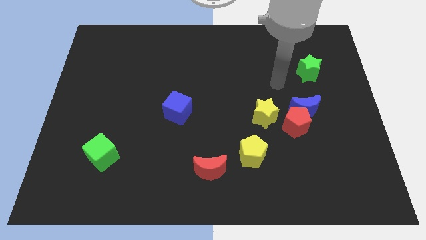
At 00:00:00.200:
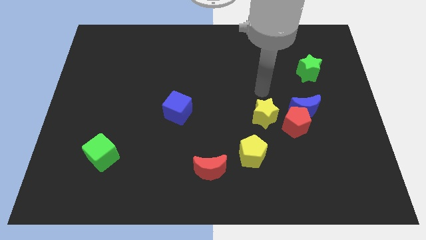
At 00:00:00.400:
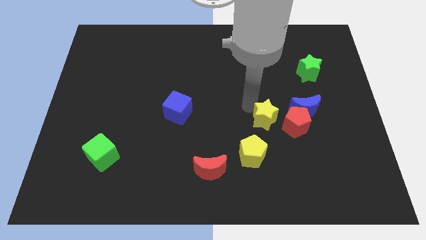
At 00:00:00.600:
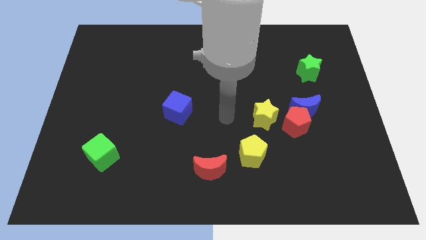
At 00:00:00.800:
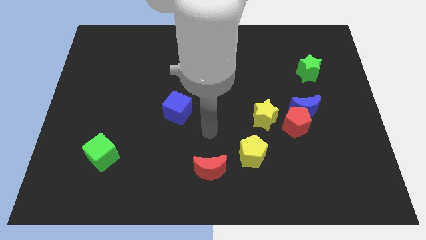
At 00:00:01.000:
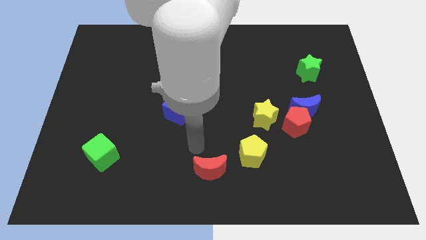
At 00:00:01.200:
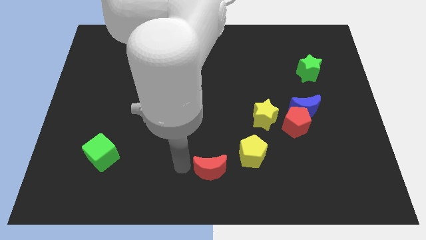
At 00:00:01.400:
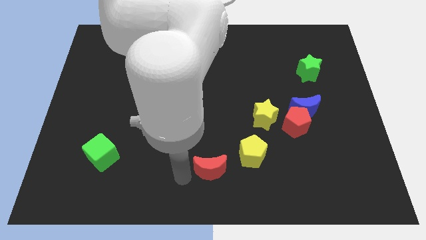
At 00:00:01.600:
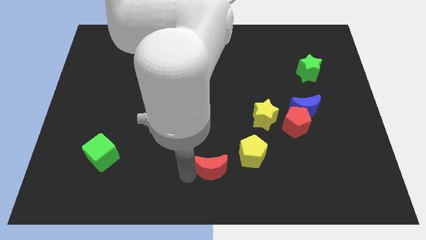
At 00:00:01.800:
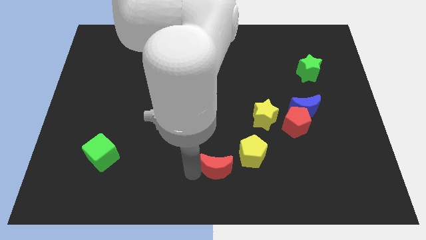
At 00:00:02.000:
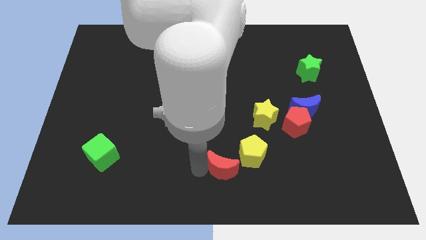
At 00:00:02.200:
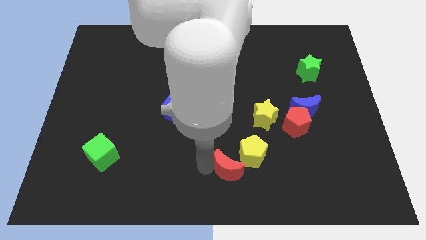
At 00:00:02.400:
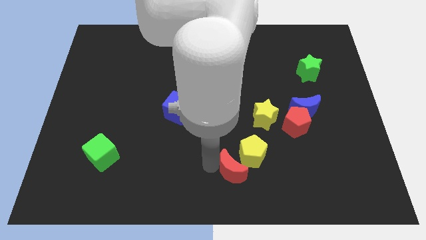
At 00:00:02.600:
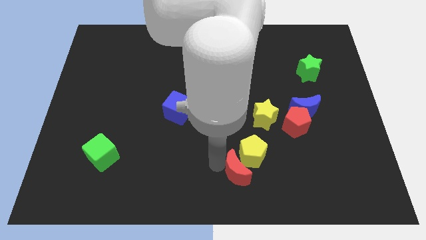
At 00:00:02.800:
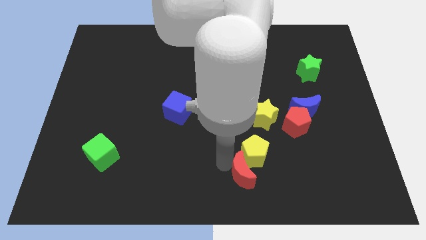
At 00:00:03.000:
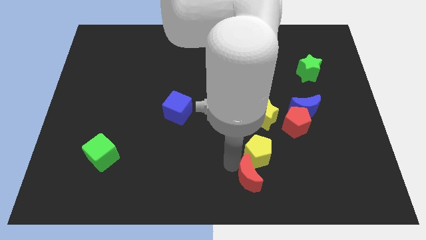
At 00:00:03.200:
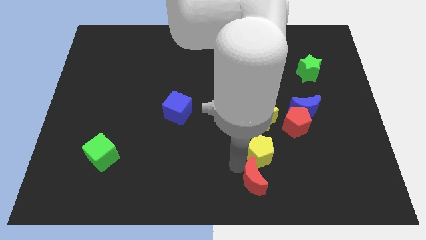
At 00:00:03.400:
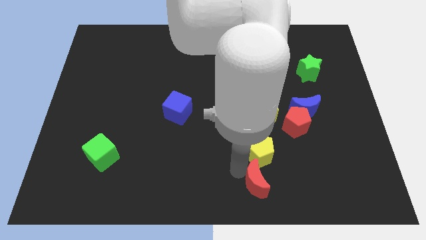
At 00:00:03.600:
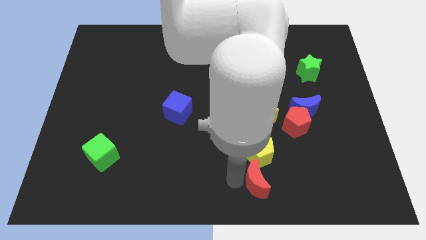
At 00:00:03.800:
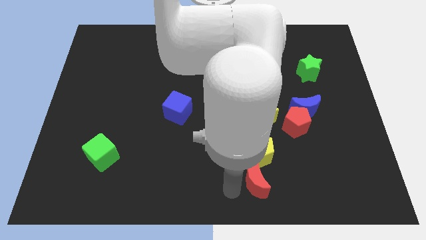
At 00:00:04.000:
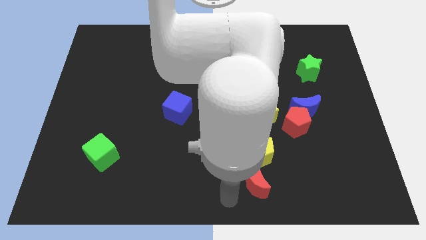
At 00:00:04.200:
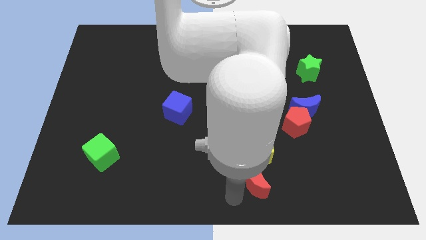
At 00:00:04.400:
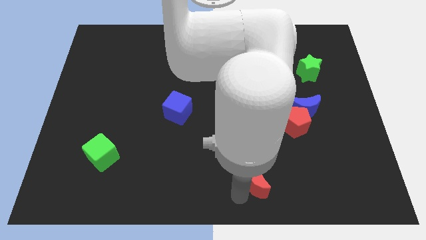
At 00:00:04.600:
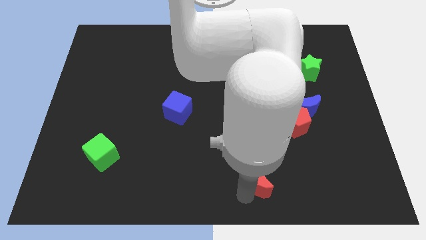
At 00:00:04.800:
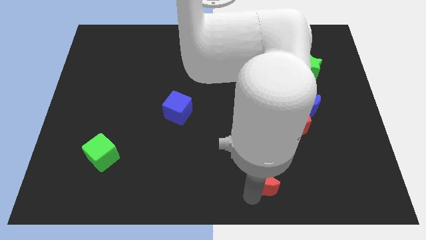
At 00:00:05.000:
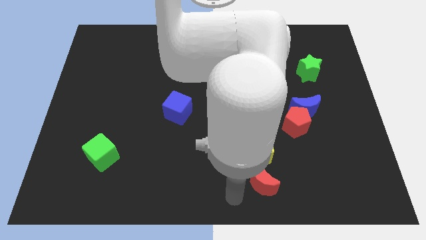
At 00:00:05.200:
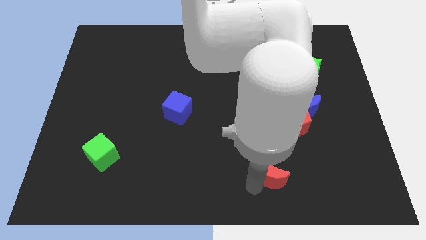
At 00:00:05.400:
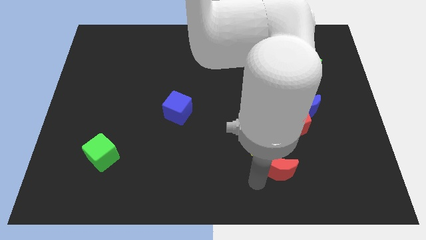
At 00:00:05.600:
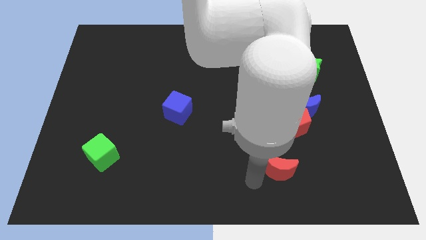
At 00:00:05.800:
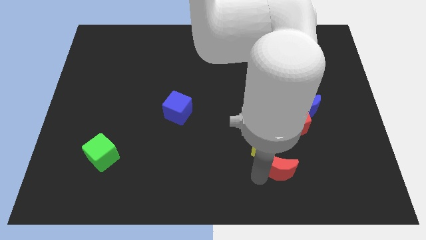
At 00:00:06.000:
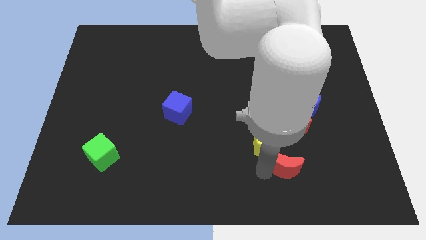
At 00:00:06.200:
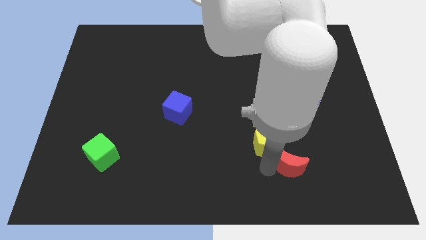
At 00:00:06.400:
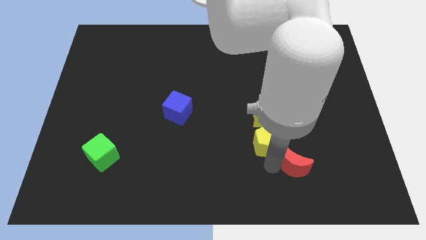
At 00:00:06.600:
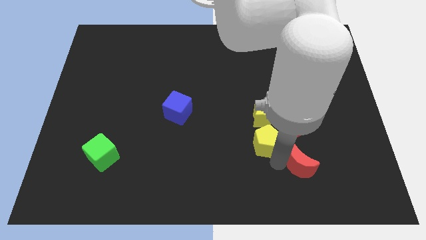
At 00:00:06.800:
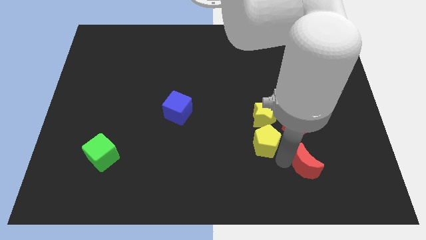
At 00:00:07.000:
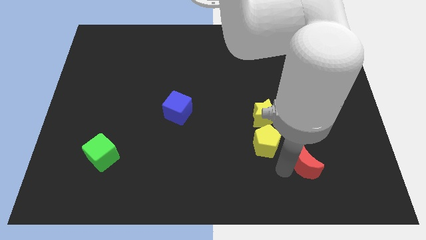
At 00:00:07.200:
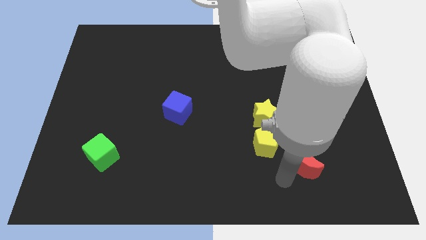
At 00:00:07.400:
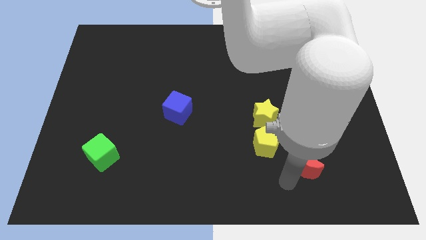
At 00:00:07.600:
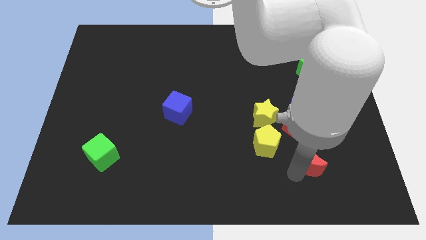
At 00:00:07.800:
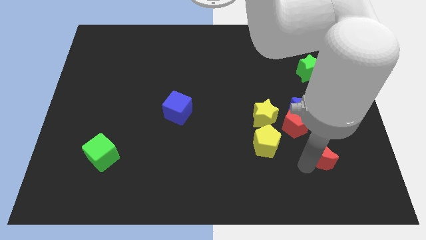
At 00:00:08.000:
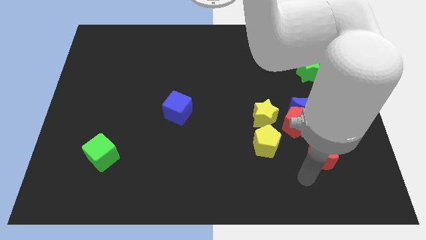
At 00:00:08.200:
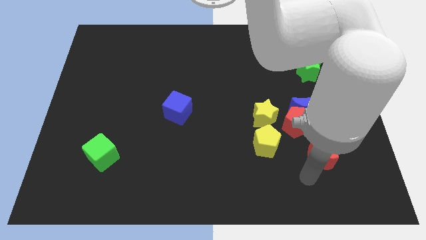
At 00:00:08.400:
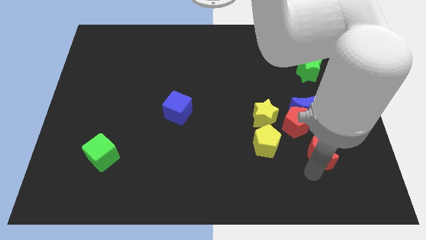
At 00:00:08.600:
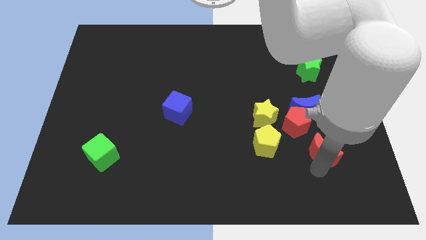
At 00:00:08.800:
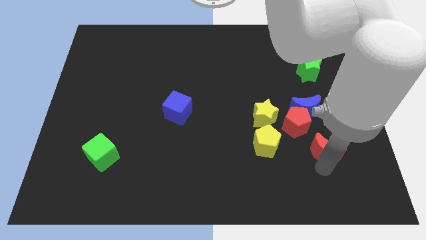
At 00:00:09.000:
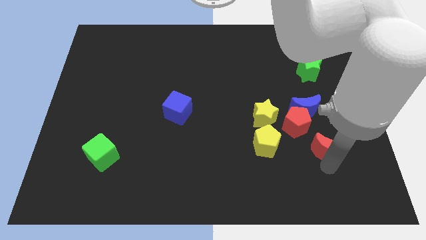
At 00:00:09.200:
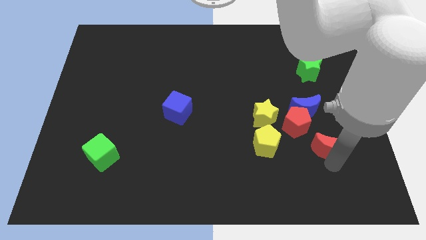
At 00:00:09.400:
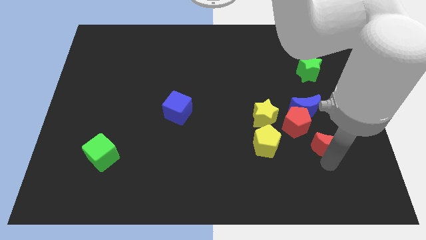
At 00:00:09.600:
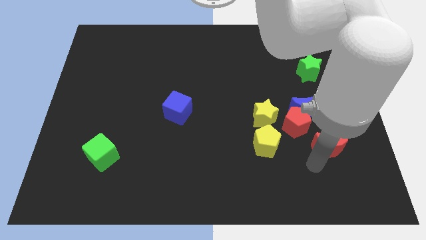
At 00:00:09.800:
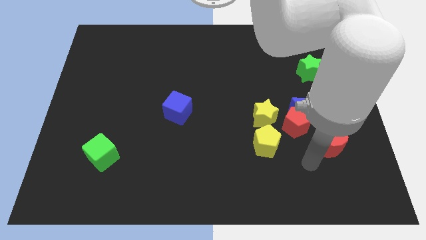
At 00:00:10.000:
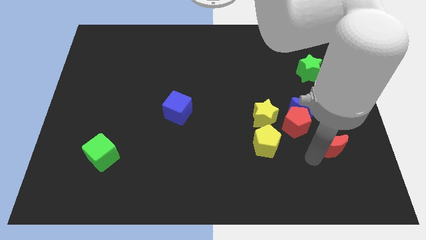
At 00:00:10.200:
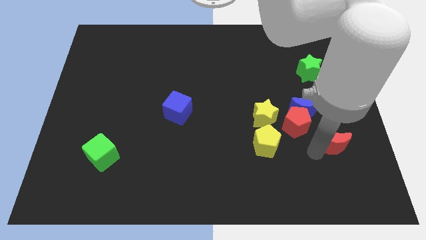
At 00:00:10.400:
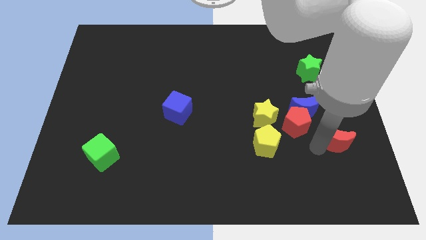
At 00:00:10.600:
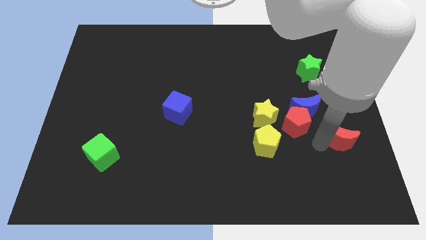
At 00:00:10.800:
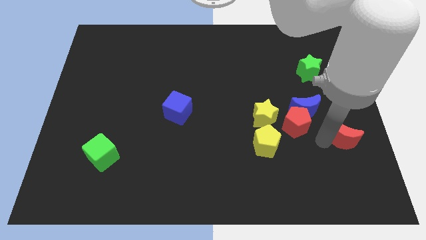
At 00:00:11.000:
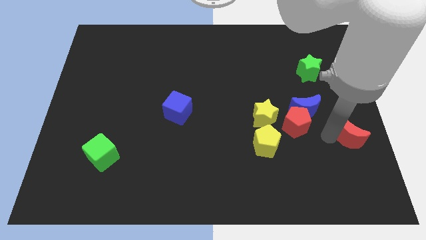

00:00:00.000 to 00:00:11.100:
slide the red moon to the right side of the board

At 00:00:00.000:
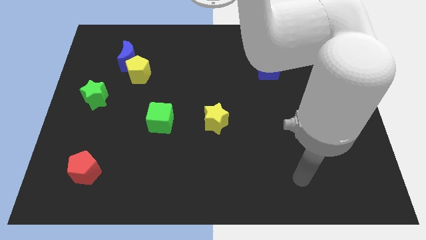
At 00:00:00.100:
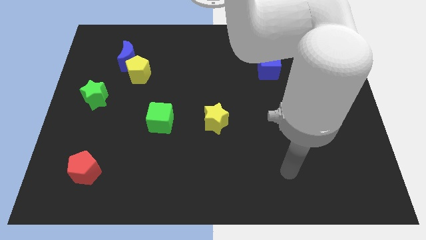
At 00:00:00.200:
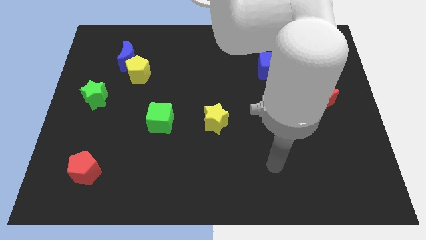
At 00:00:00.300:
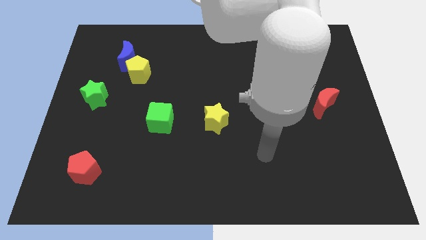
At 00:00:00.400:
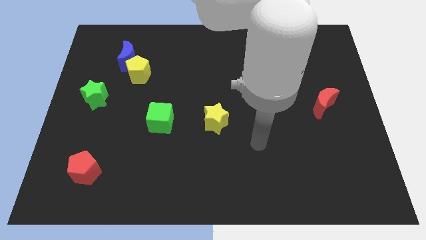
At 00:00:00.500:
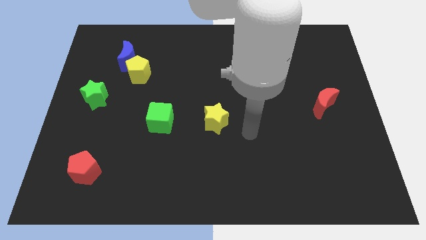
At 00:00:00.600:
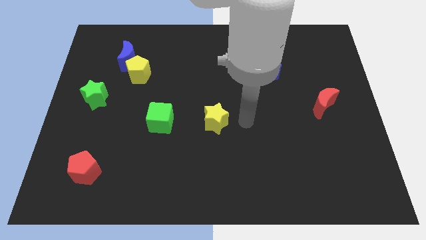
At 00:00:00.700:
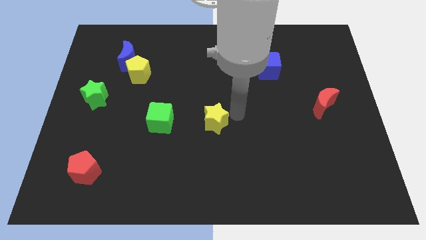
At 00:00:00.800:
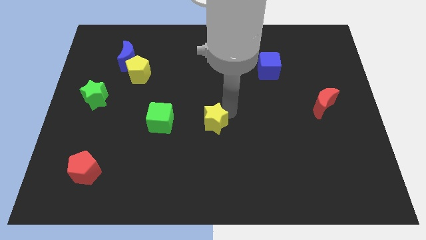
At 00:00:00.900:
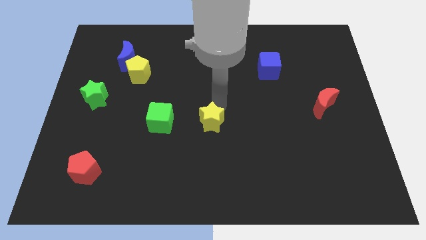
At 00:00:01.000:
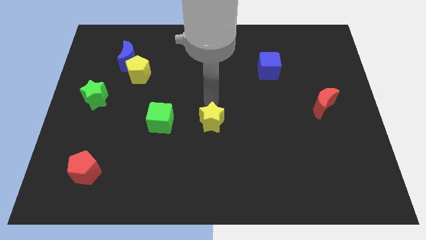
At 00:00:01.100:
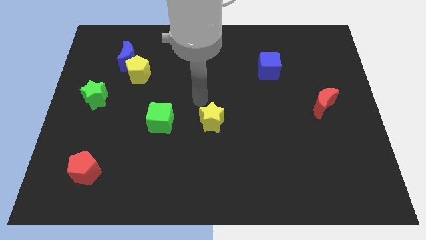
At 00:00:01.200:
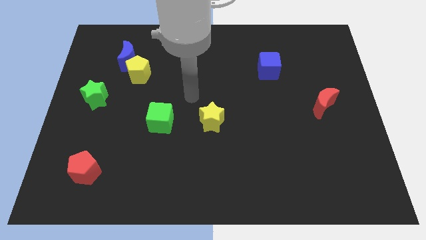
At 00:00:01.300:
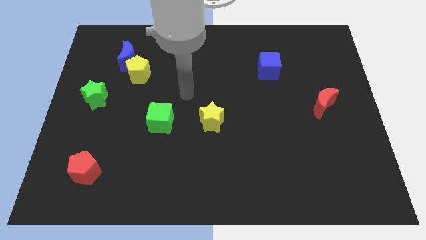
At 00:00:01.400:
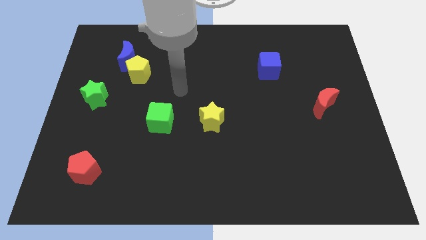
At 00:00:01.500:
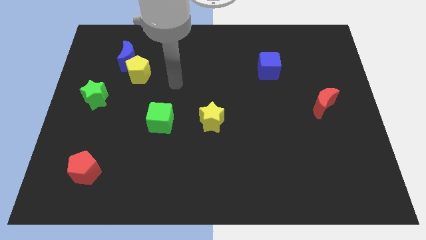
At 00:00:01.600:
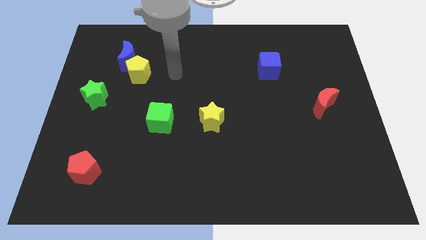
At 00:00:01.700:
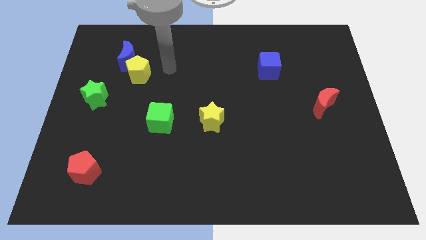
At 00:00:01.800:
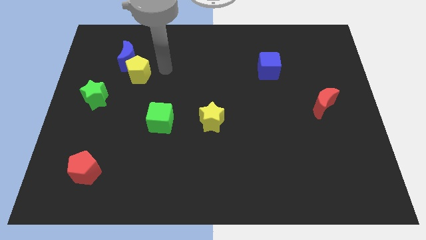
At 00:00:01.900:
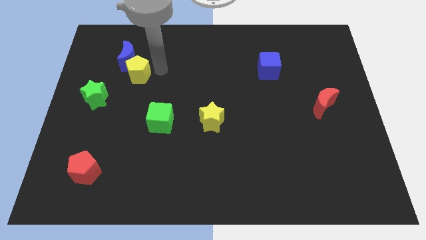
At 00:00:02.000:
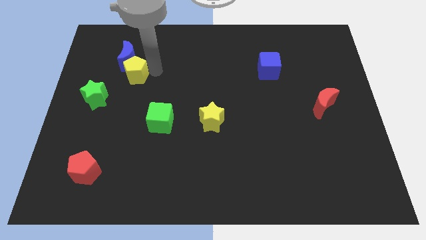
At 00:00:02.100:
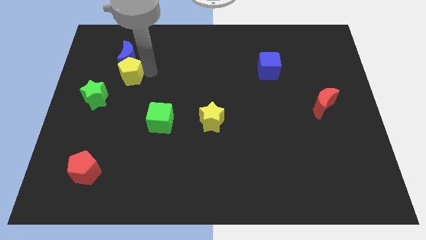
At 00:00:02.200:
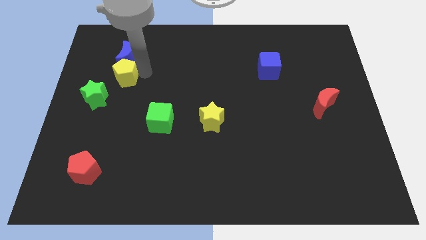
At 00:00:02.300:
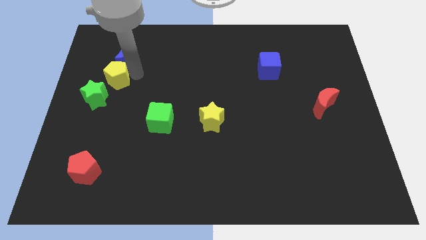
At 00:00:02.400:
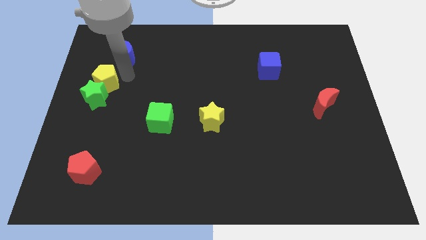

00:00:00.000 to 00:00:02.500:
push the yellow pentagon to the center left
